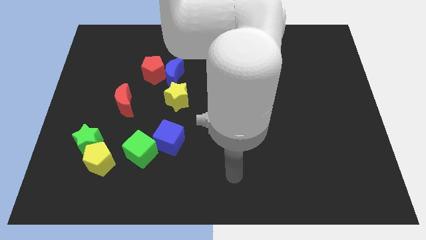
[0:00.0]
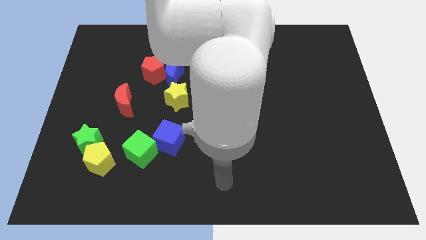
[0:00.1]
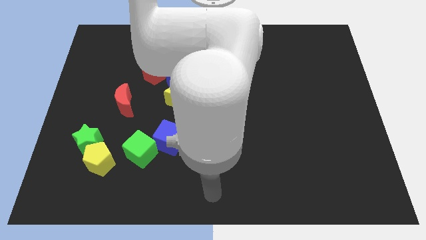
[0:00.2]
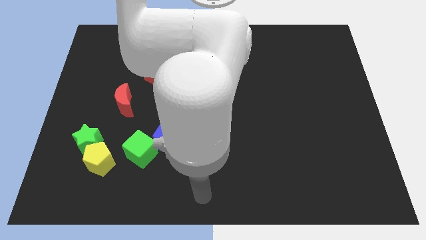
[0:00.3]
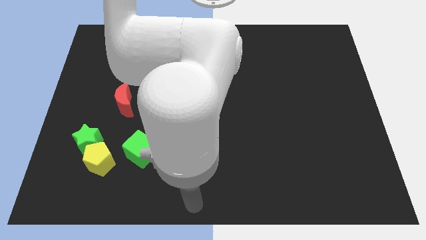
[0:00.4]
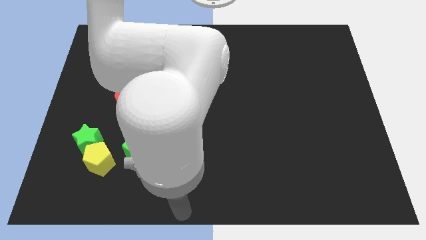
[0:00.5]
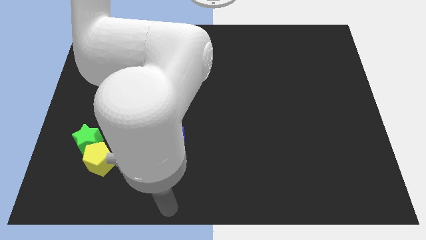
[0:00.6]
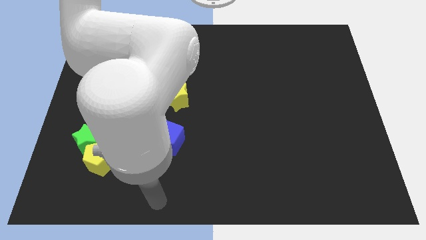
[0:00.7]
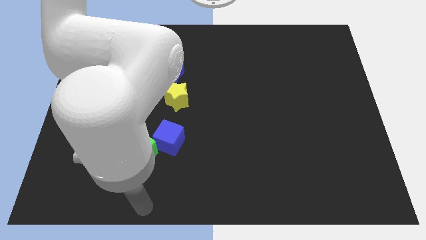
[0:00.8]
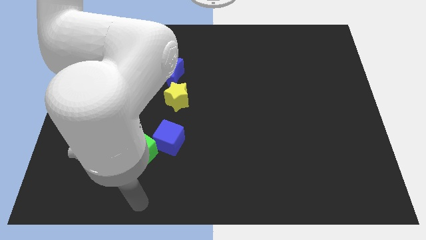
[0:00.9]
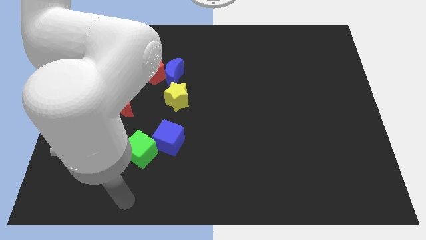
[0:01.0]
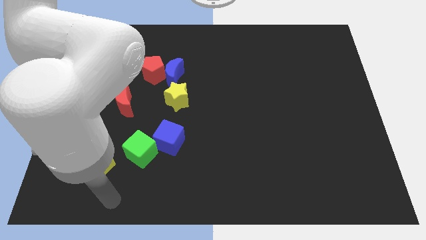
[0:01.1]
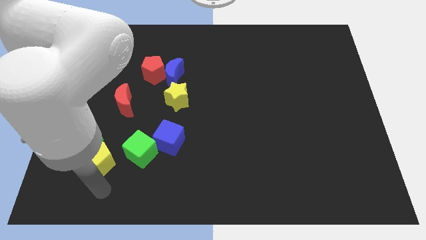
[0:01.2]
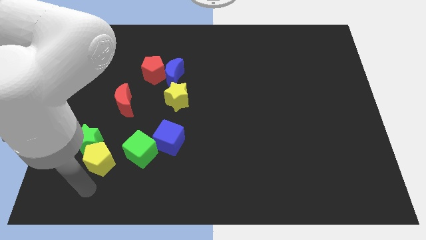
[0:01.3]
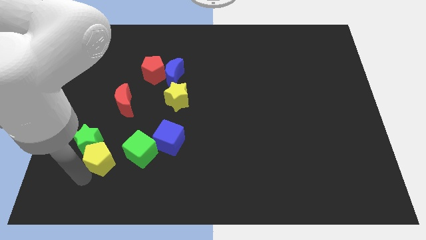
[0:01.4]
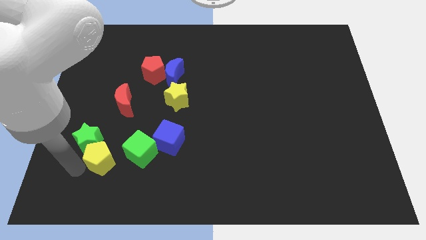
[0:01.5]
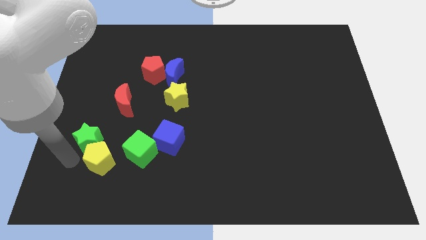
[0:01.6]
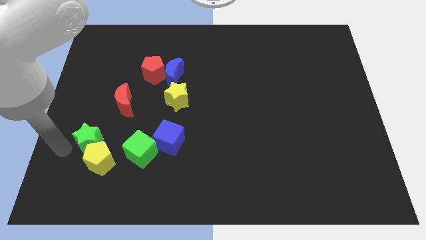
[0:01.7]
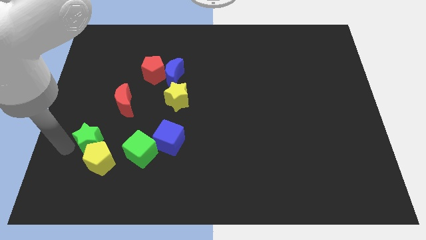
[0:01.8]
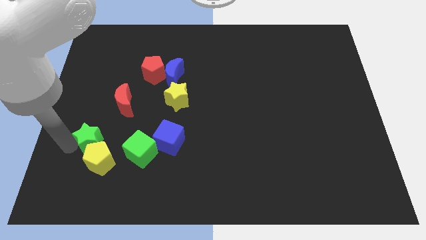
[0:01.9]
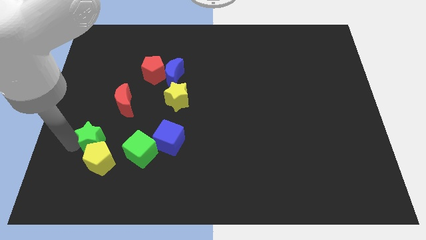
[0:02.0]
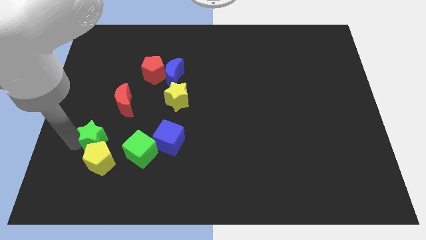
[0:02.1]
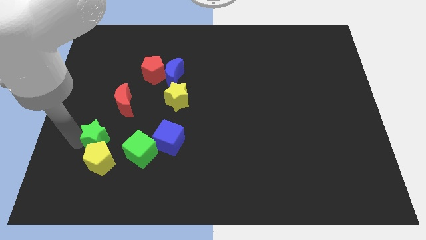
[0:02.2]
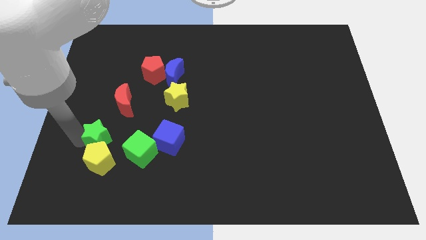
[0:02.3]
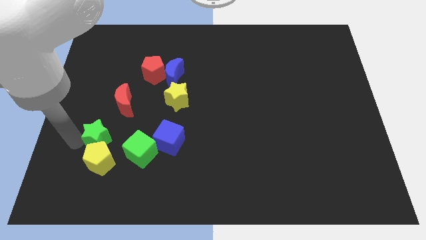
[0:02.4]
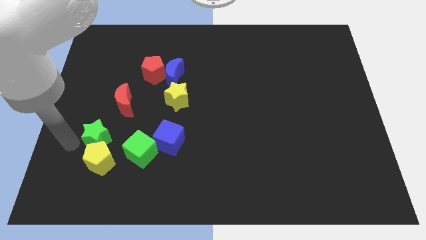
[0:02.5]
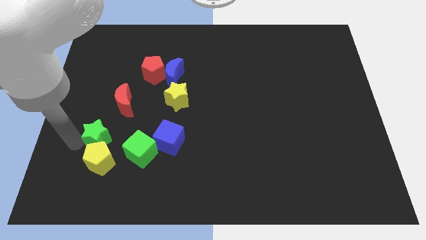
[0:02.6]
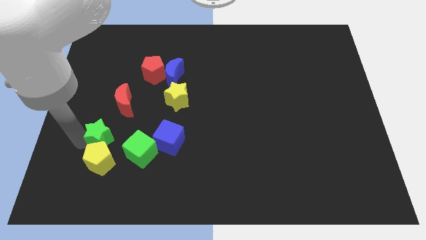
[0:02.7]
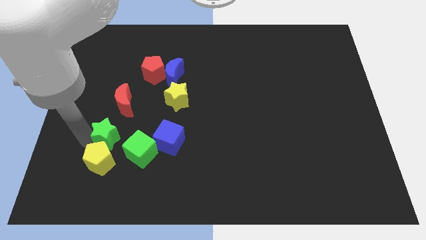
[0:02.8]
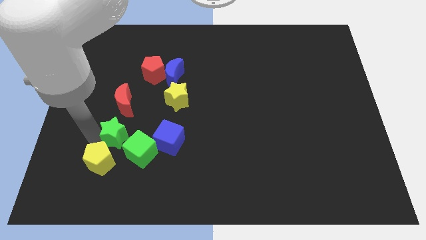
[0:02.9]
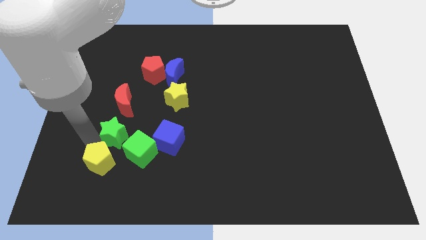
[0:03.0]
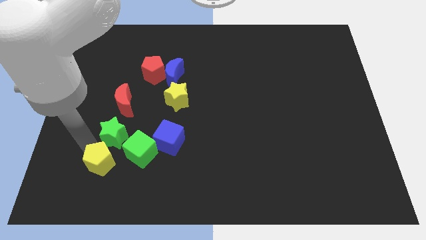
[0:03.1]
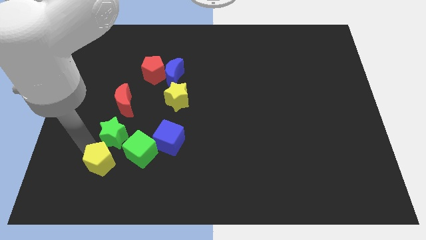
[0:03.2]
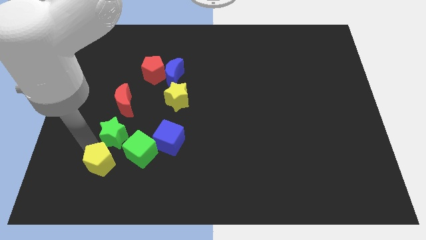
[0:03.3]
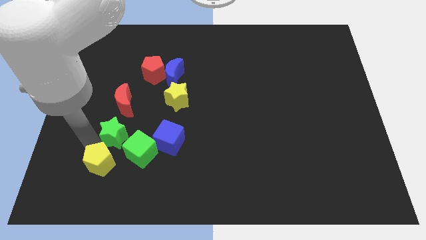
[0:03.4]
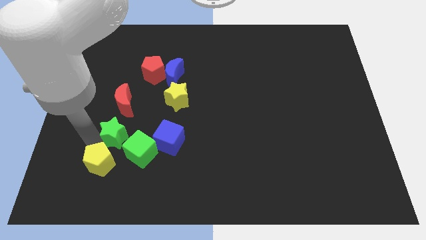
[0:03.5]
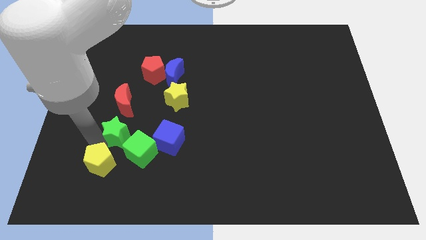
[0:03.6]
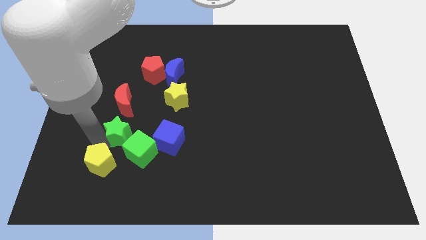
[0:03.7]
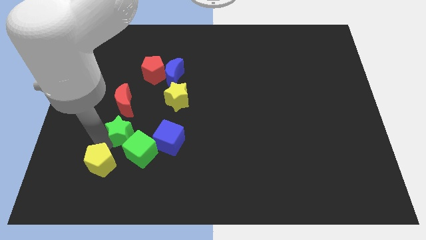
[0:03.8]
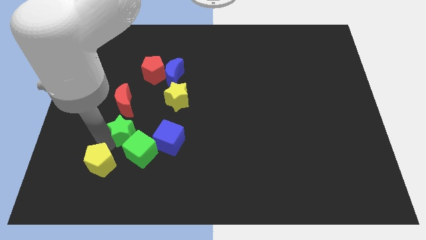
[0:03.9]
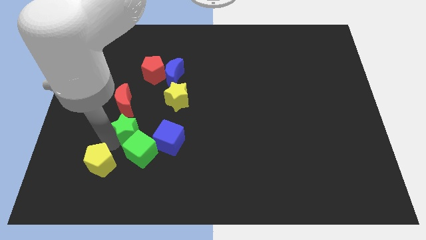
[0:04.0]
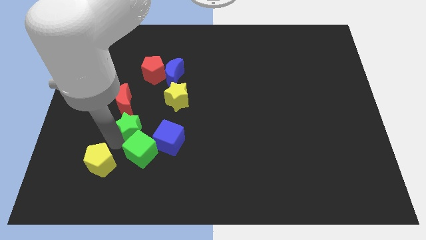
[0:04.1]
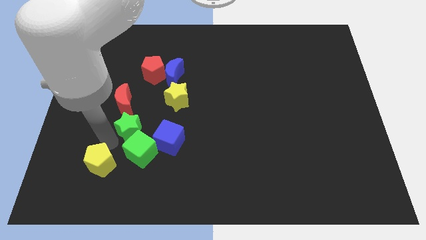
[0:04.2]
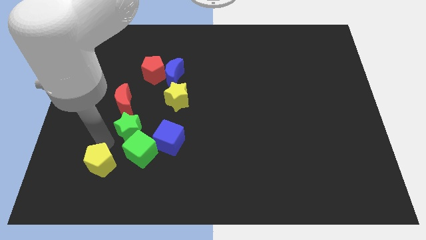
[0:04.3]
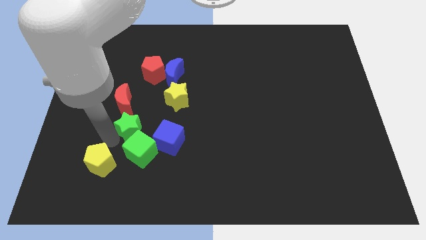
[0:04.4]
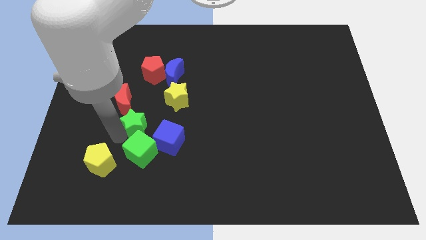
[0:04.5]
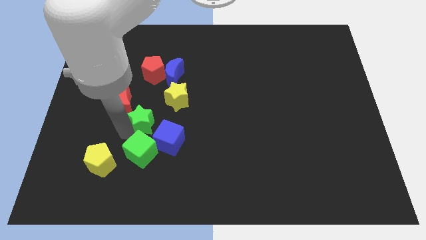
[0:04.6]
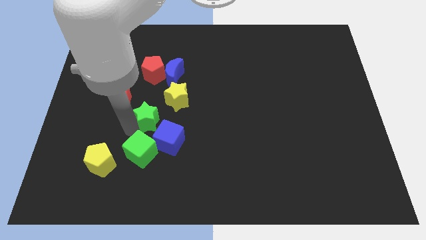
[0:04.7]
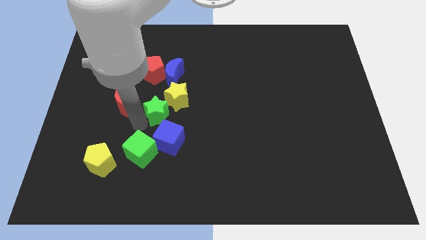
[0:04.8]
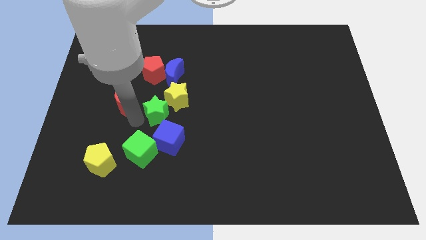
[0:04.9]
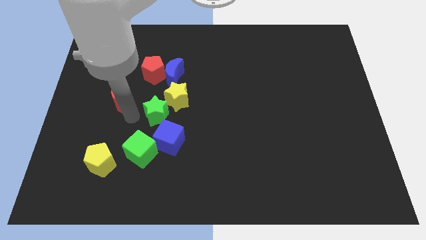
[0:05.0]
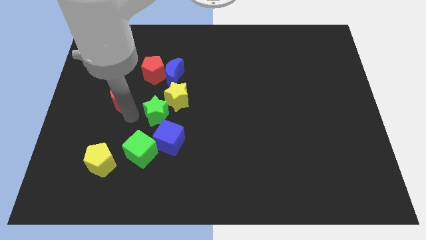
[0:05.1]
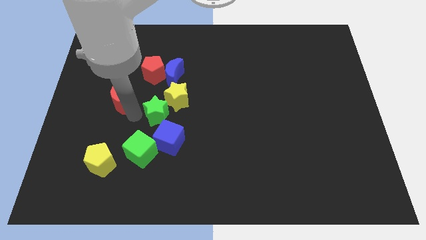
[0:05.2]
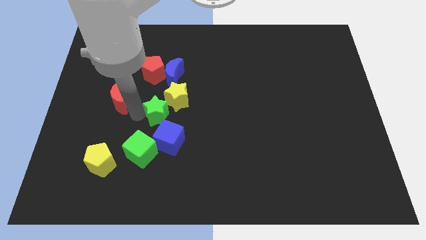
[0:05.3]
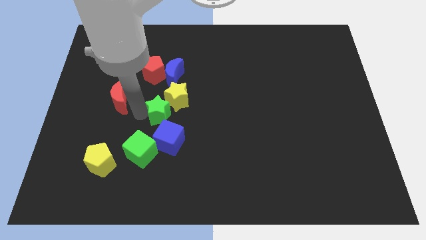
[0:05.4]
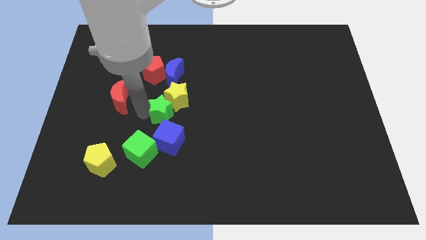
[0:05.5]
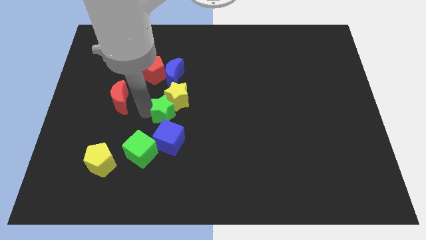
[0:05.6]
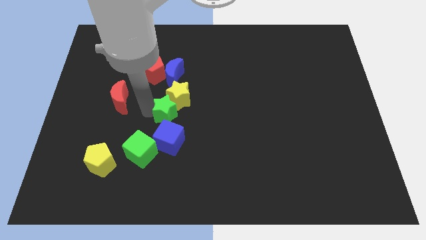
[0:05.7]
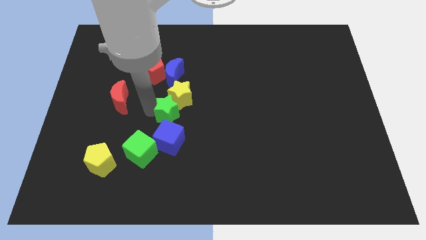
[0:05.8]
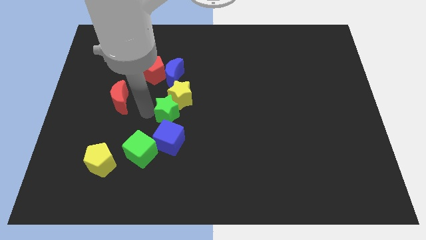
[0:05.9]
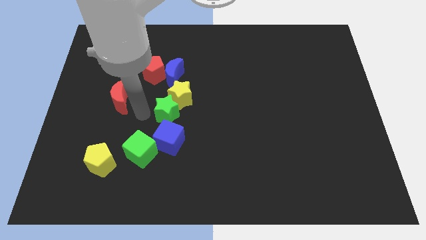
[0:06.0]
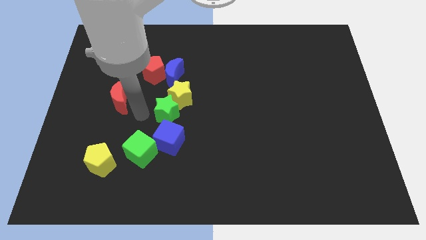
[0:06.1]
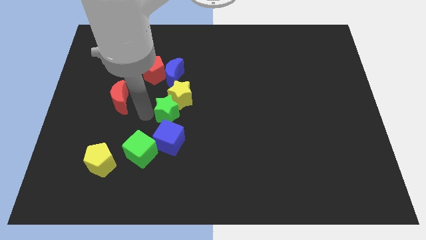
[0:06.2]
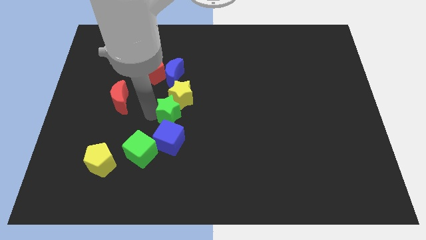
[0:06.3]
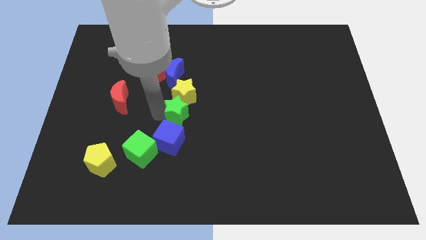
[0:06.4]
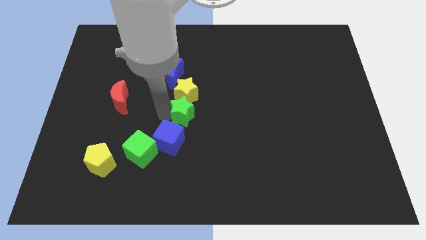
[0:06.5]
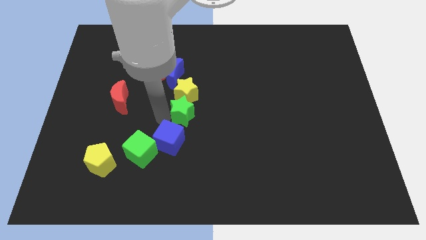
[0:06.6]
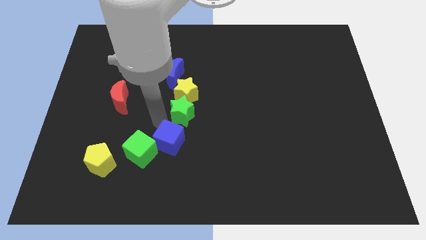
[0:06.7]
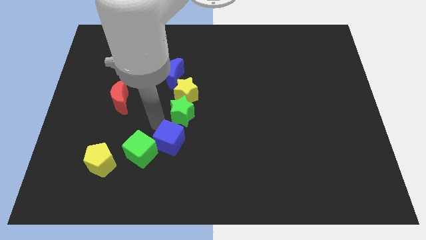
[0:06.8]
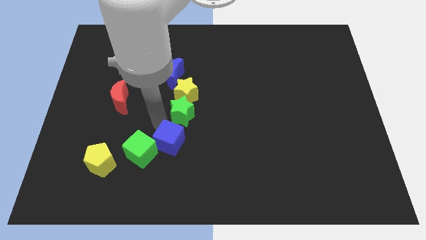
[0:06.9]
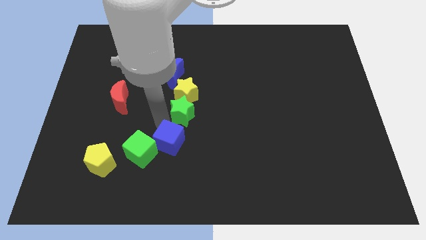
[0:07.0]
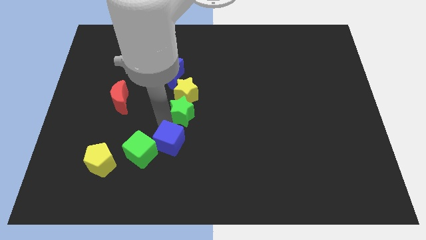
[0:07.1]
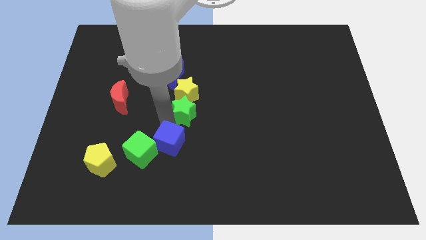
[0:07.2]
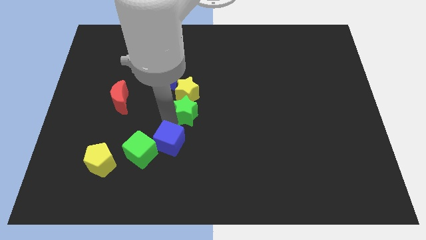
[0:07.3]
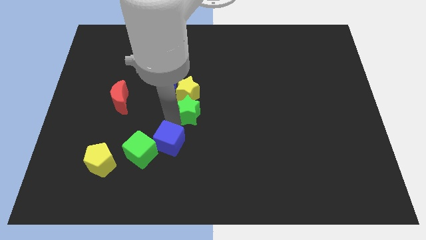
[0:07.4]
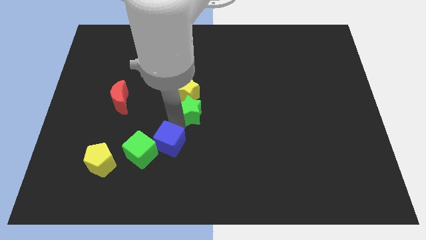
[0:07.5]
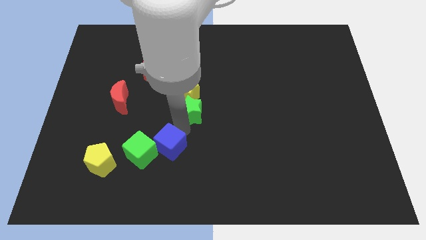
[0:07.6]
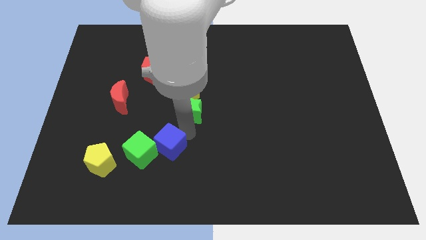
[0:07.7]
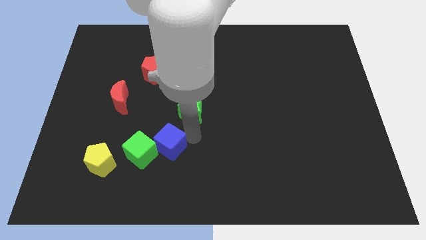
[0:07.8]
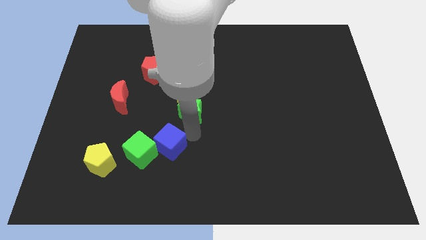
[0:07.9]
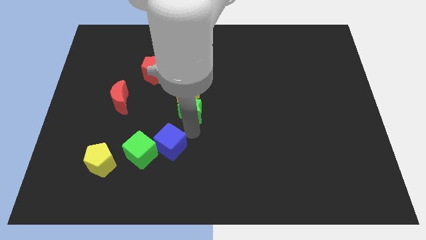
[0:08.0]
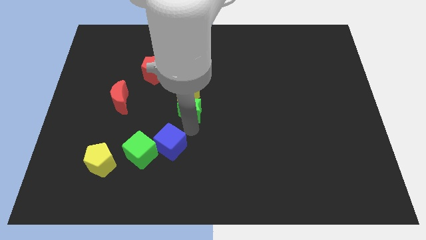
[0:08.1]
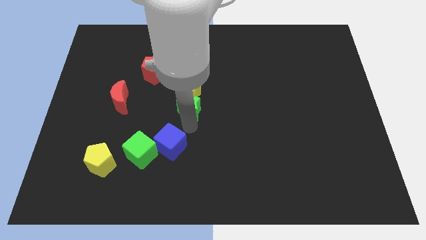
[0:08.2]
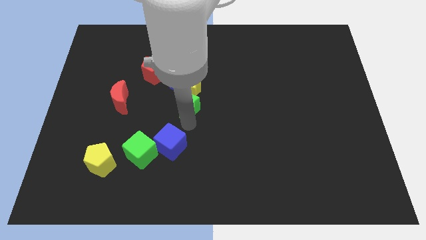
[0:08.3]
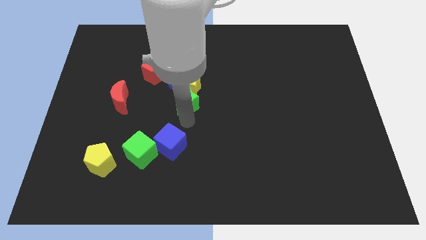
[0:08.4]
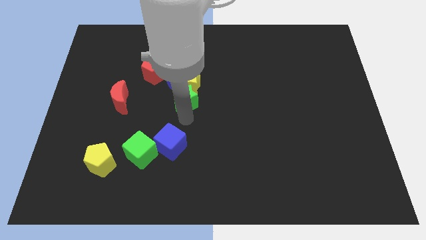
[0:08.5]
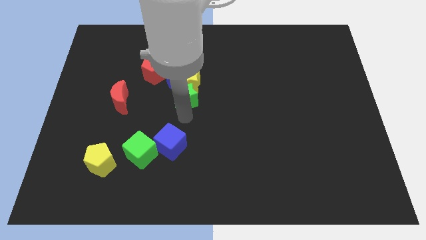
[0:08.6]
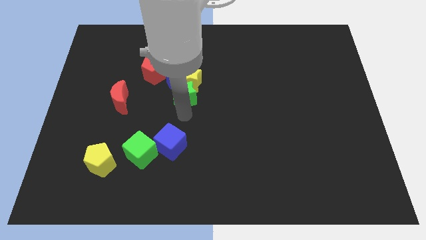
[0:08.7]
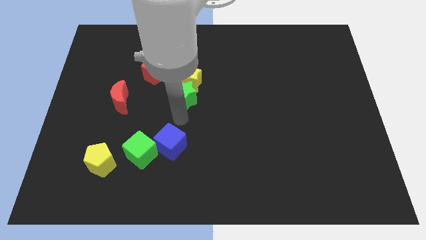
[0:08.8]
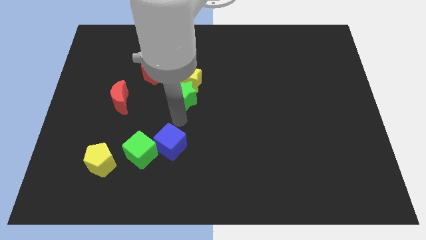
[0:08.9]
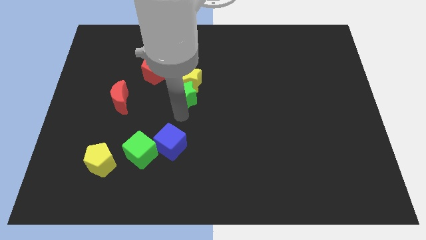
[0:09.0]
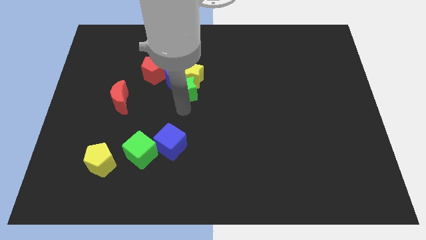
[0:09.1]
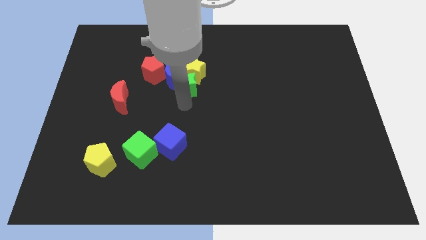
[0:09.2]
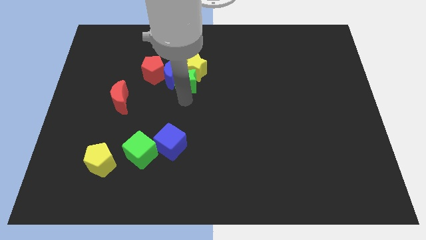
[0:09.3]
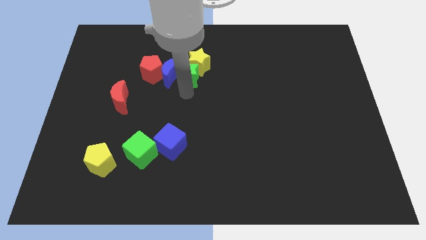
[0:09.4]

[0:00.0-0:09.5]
slide the green star diagonally up and to the right of the blue moon
